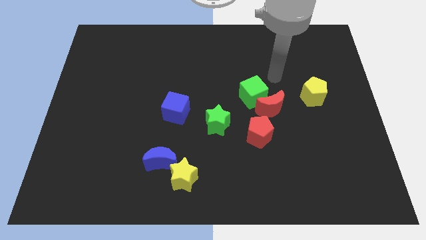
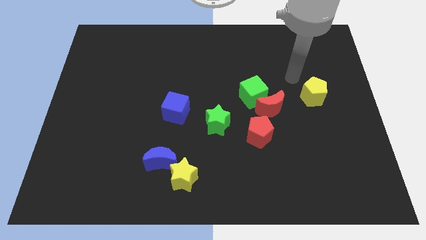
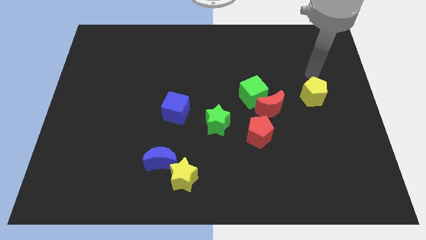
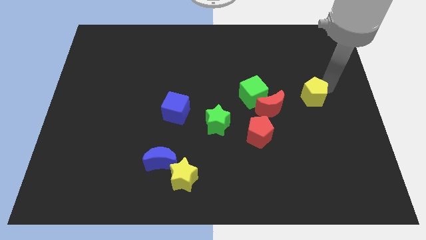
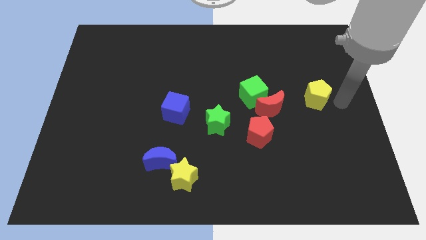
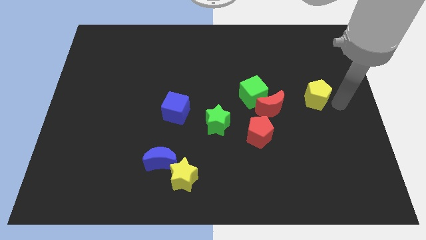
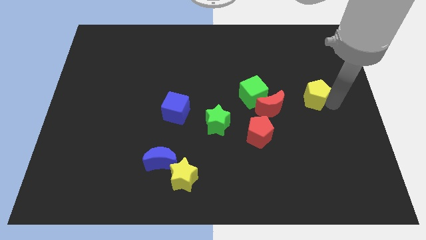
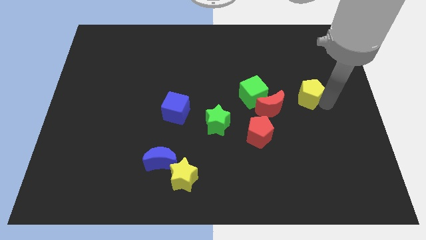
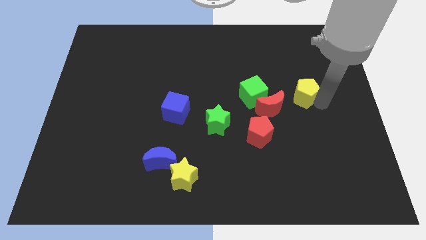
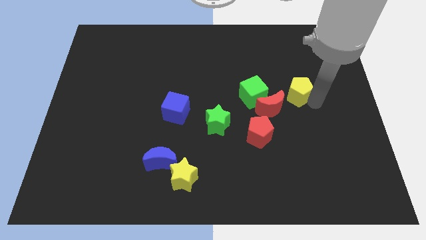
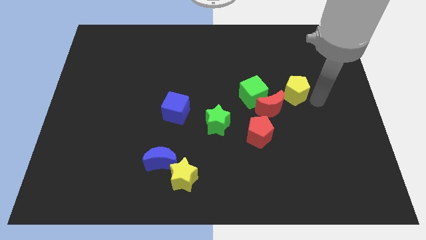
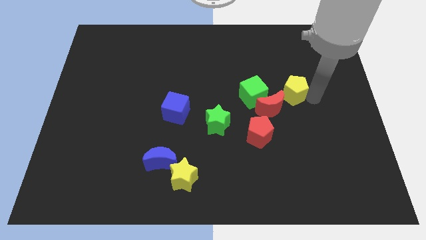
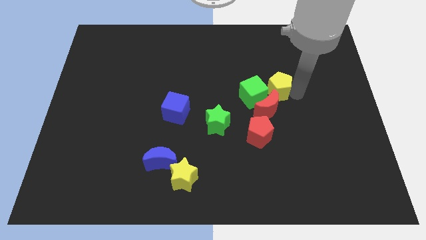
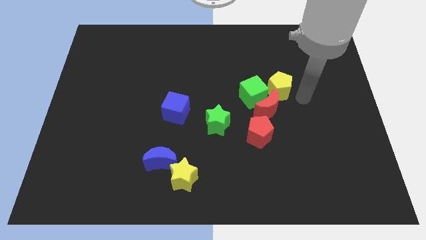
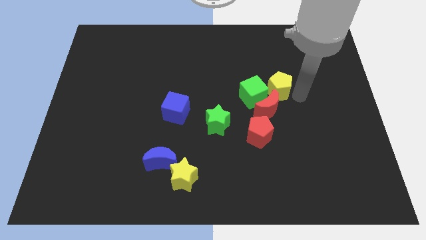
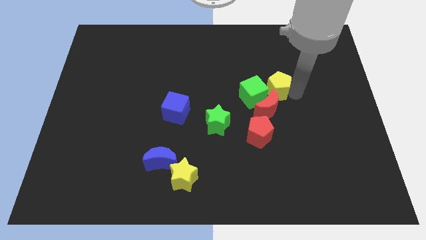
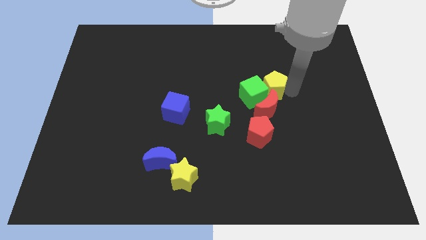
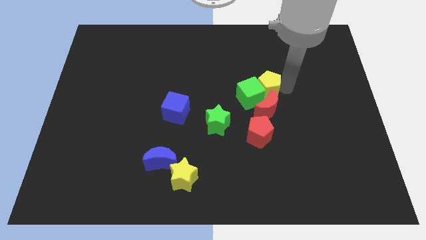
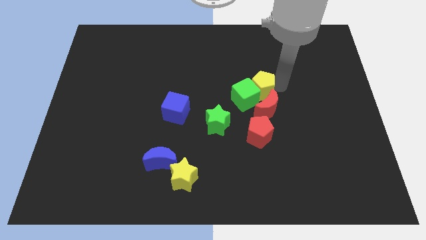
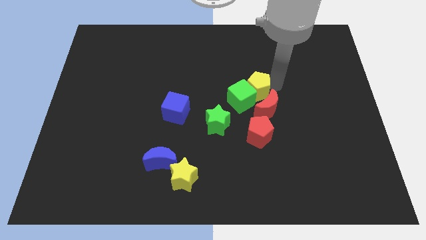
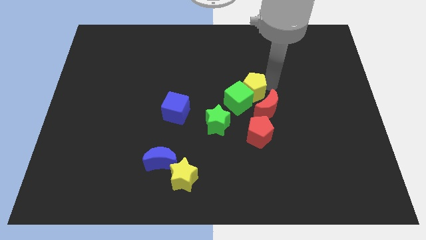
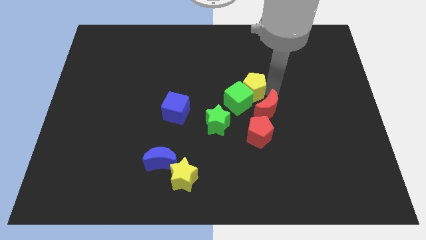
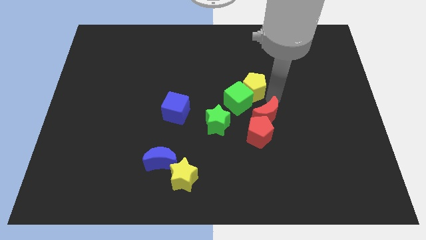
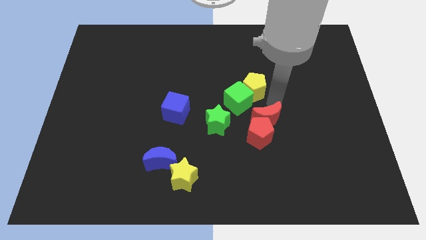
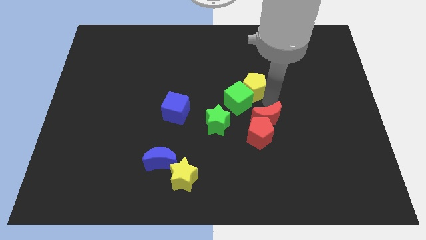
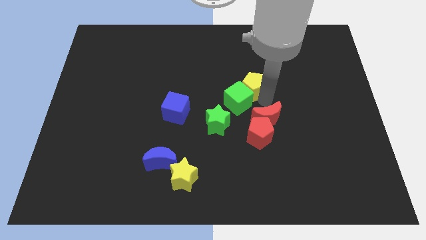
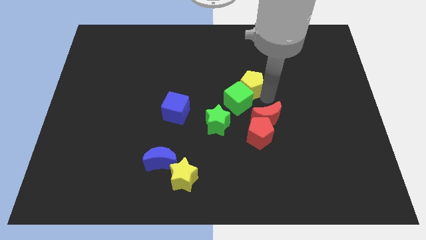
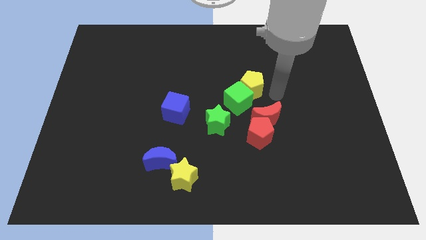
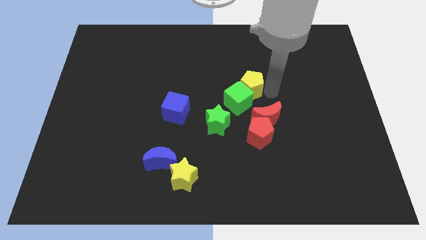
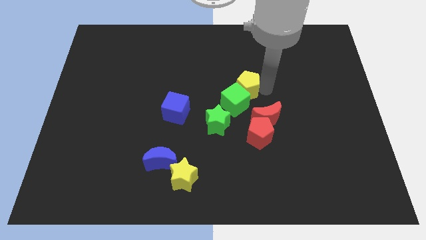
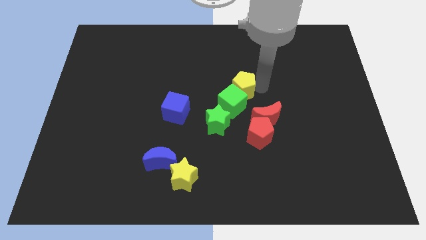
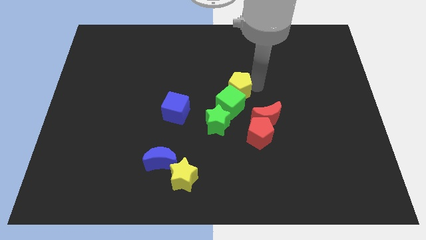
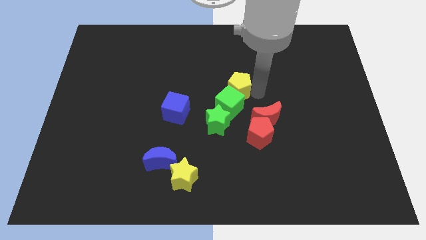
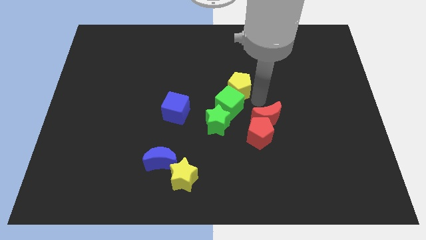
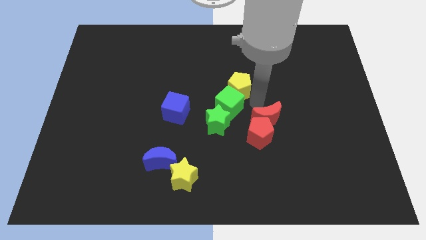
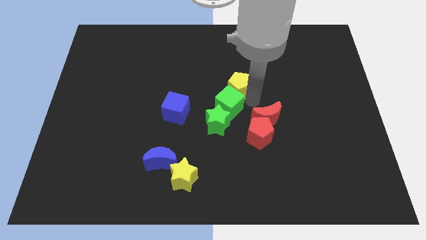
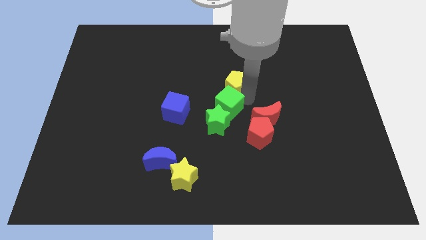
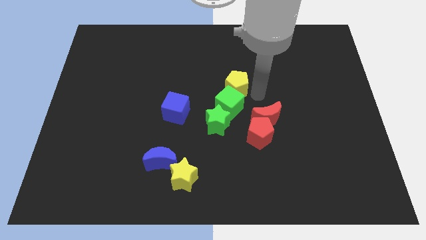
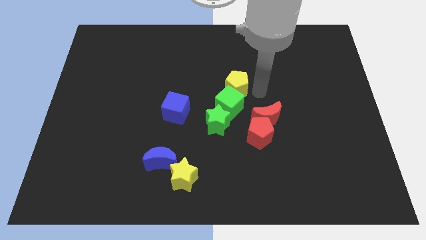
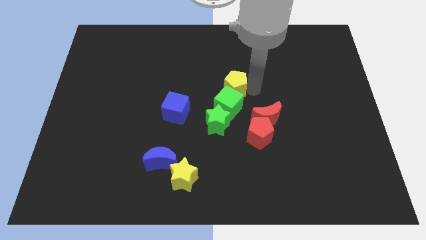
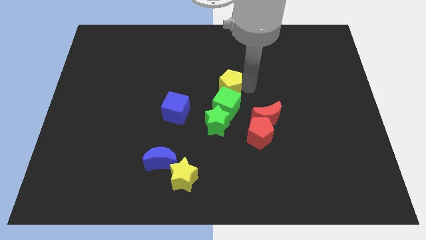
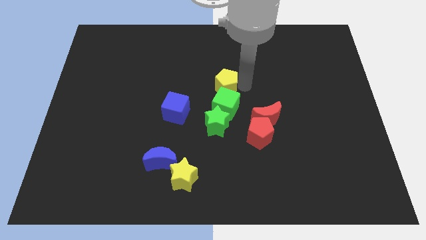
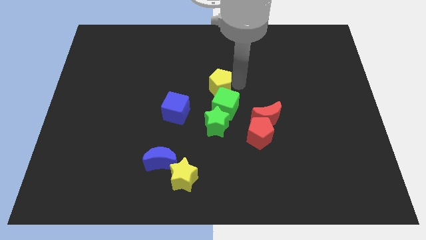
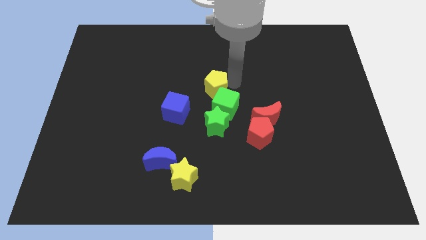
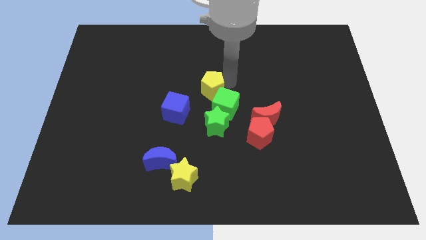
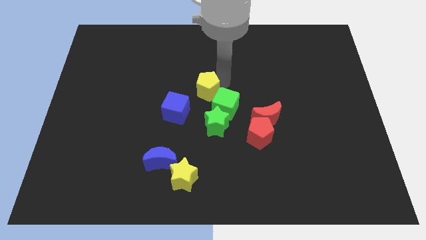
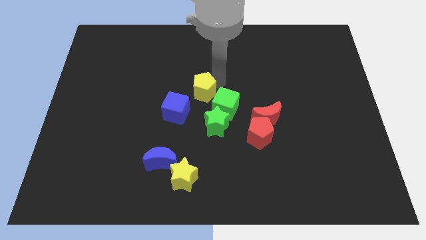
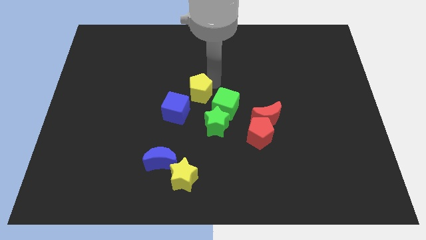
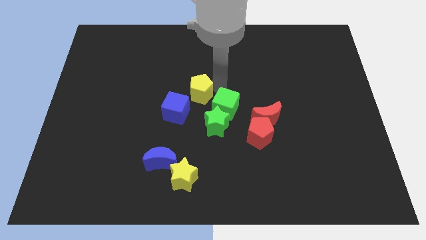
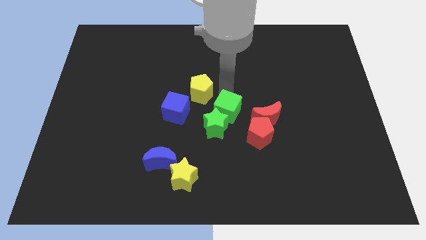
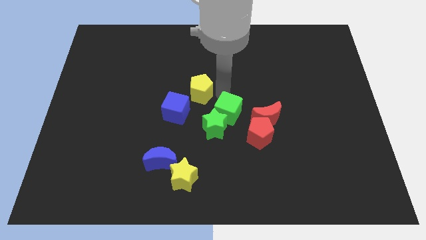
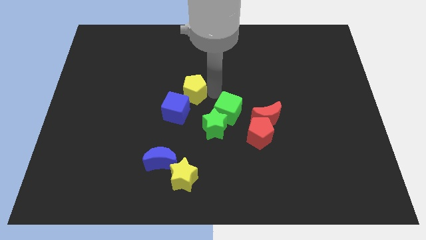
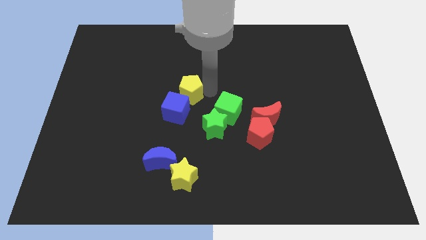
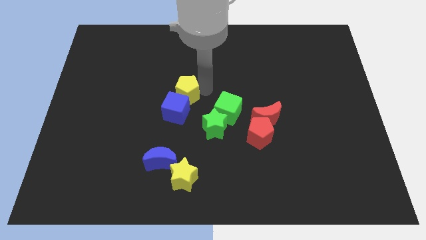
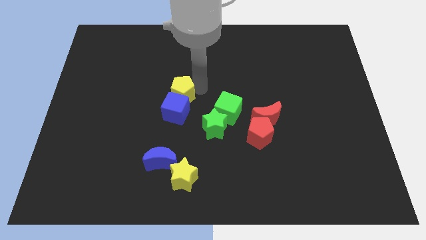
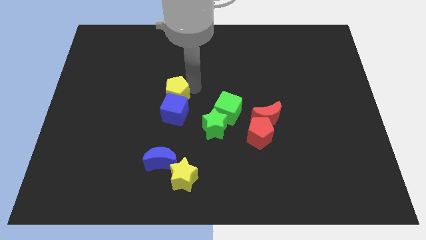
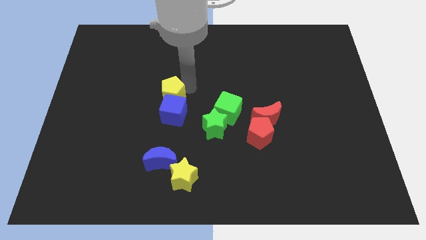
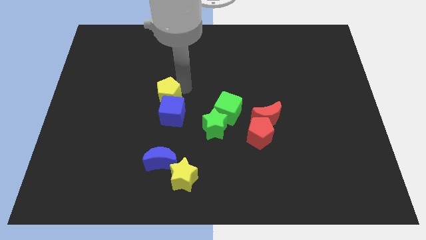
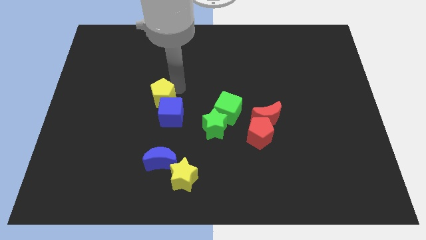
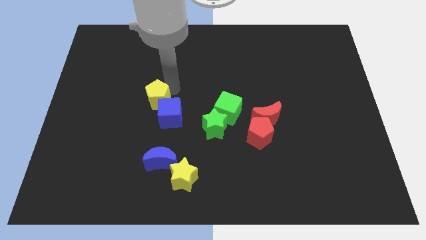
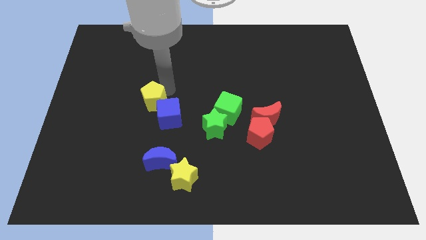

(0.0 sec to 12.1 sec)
push the yellow pentagon to the left of the blue cube
